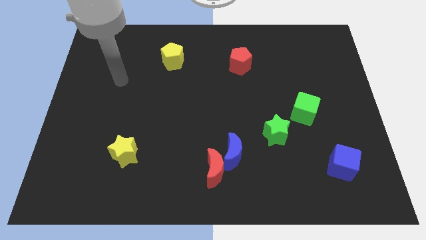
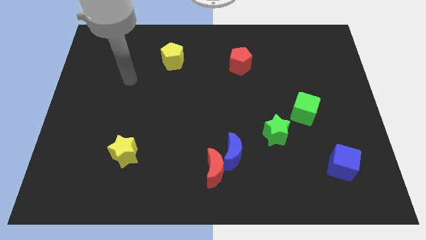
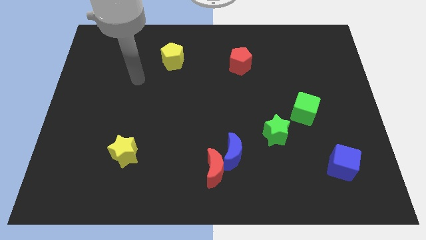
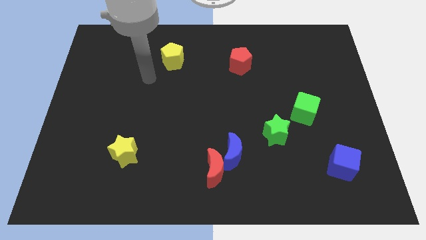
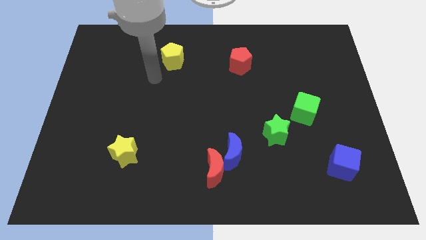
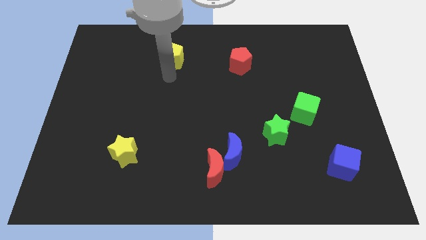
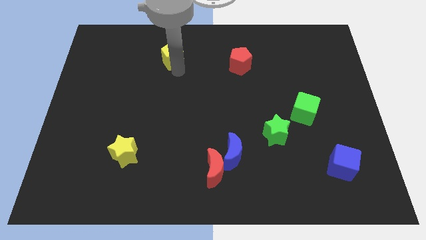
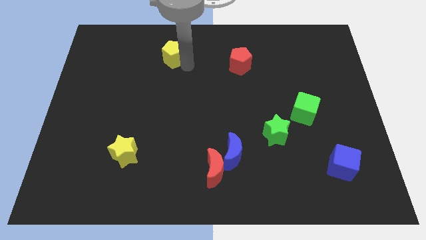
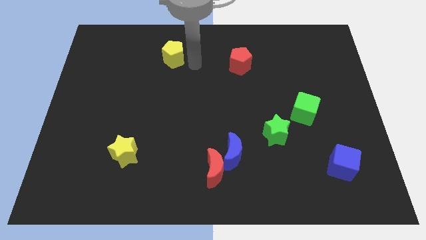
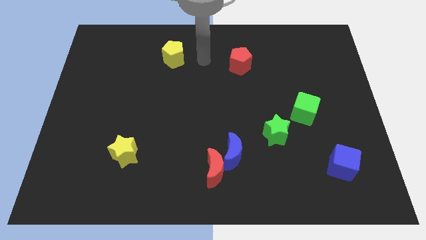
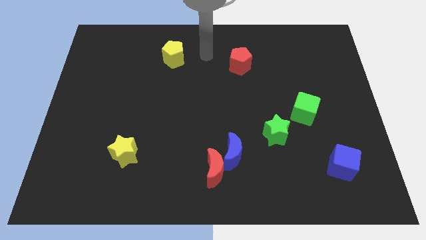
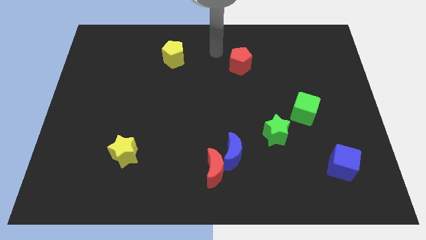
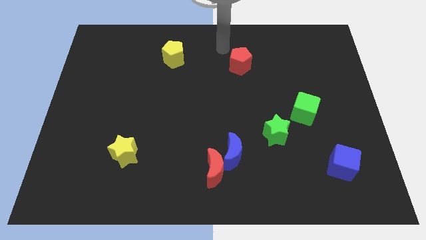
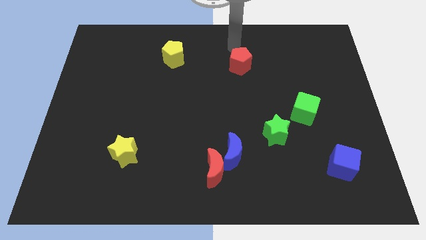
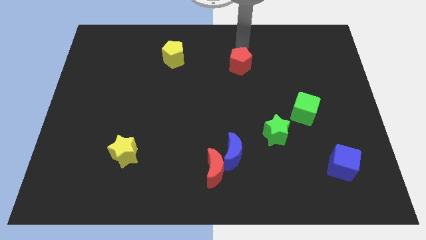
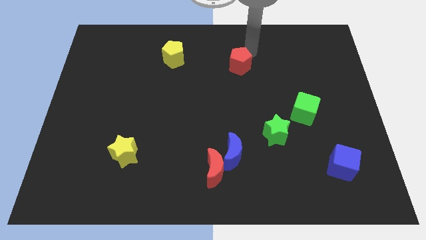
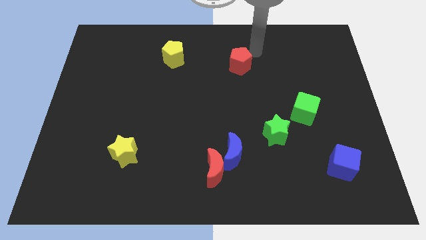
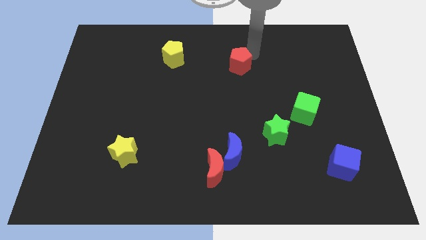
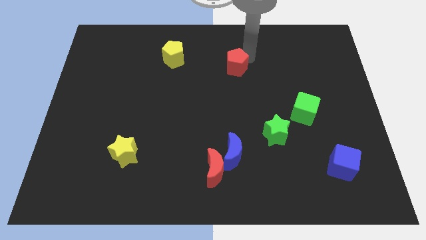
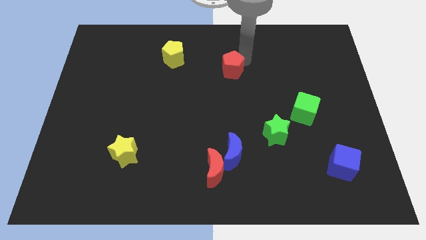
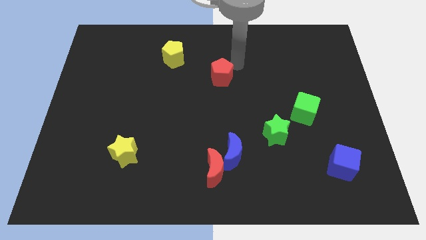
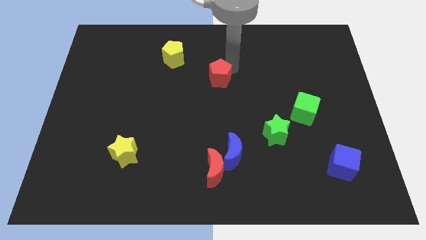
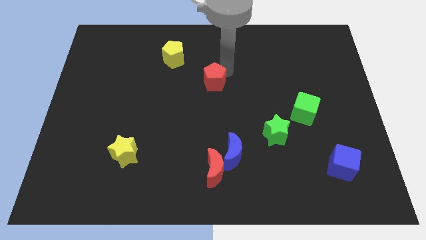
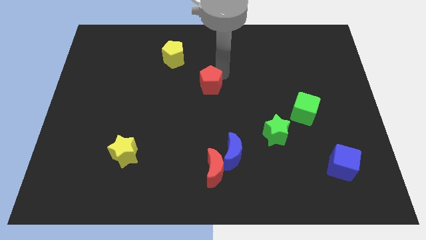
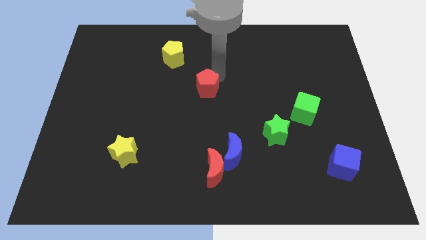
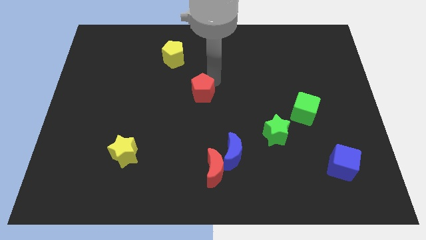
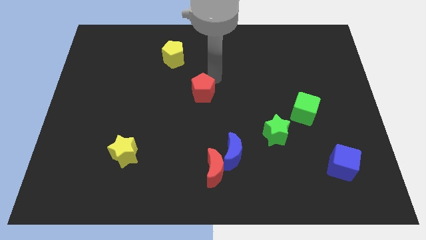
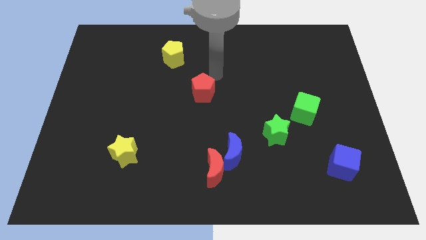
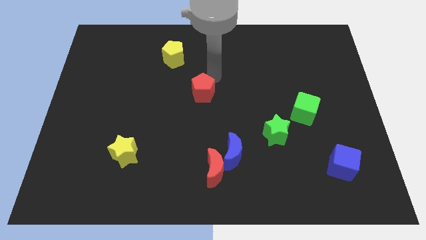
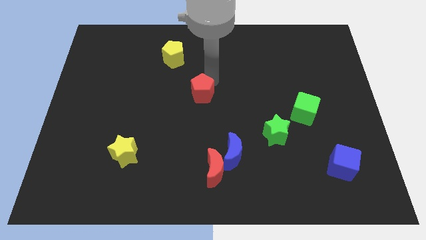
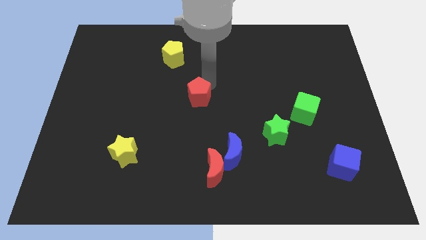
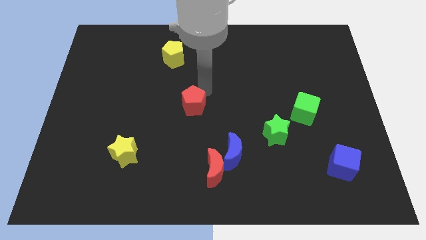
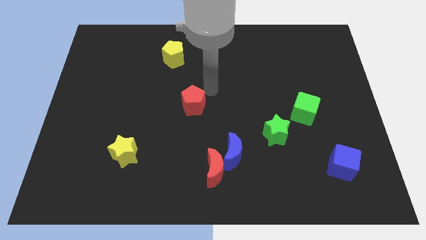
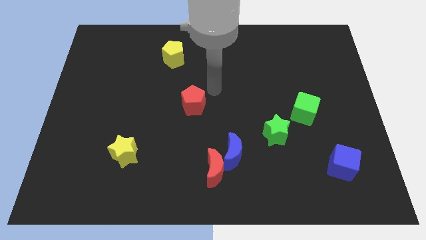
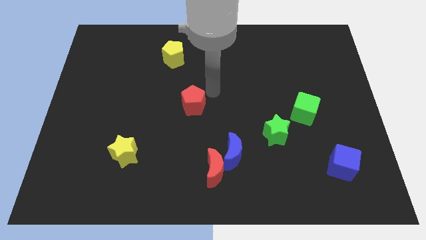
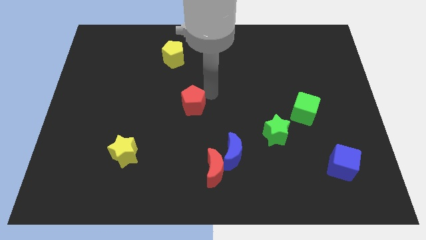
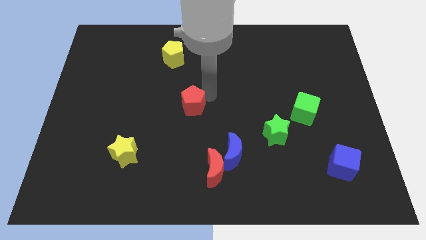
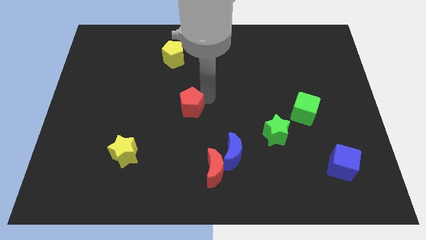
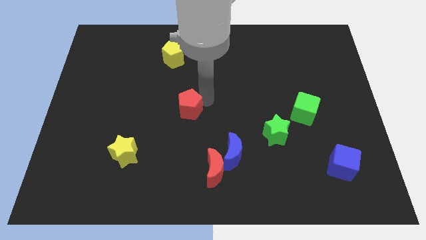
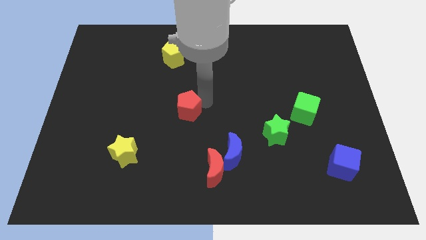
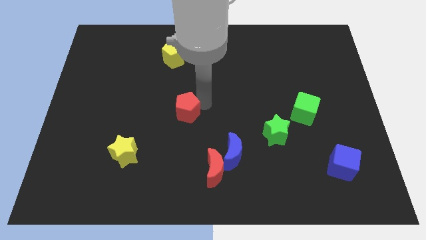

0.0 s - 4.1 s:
push the red pentagon down and left

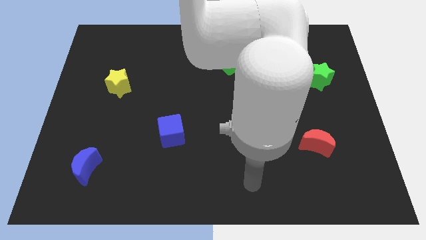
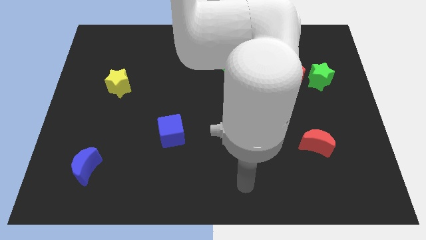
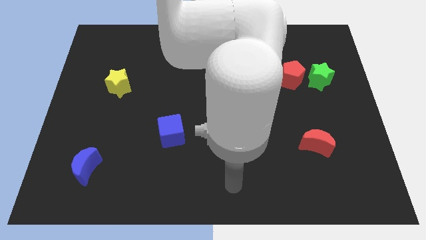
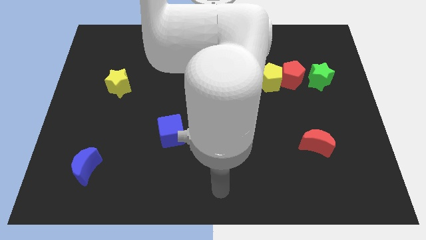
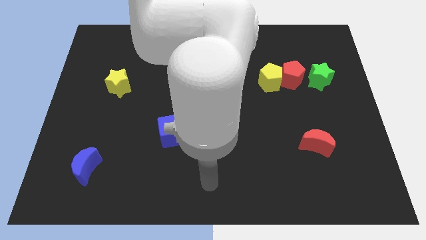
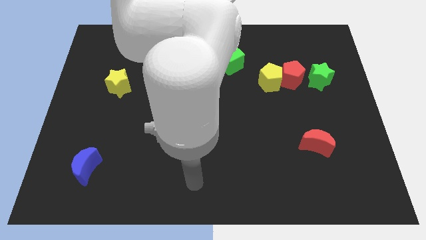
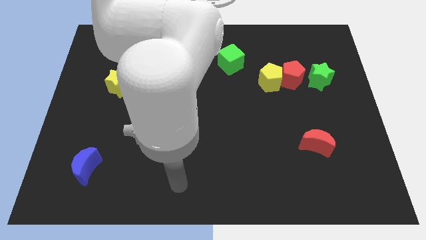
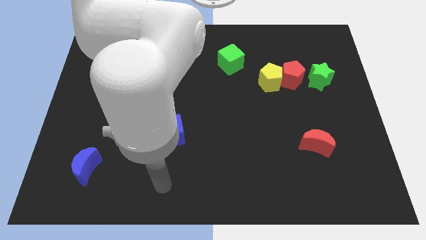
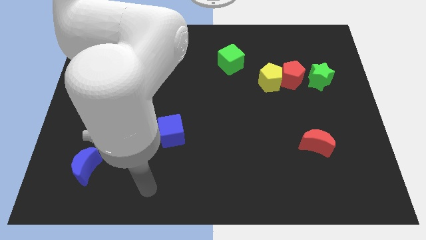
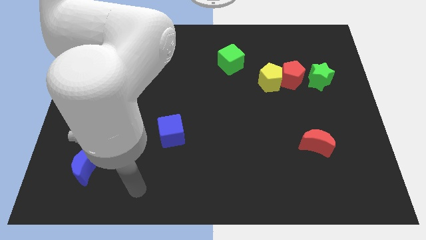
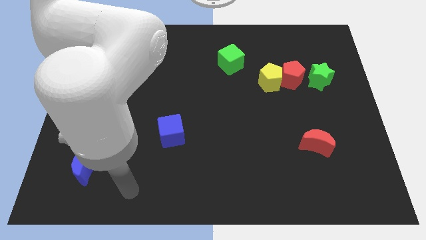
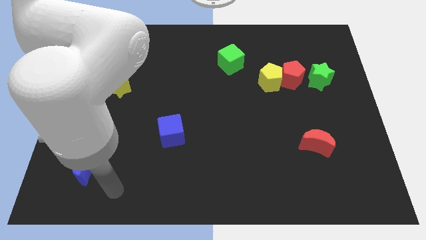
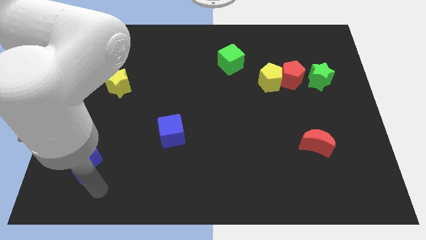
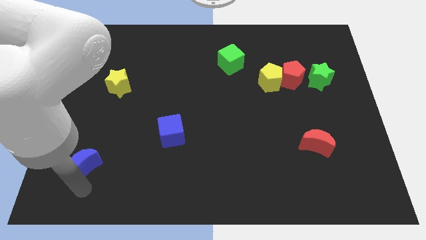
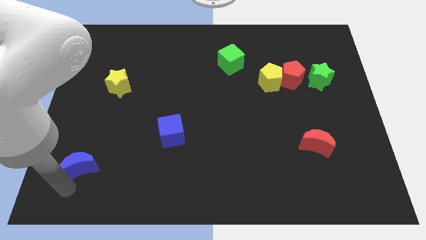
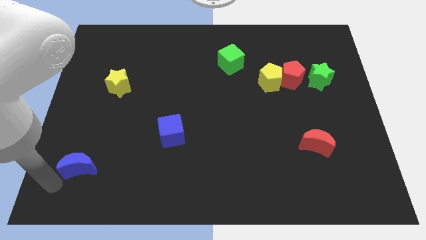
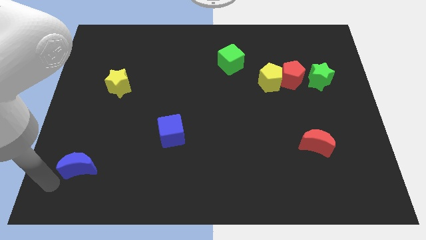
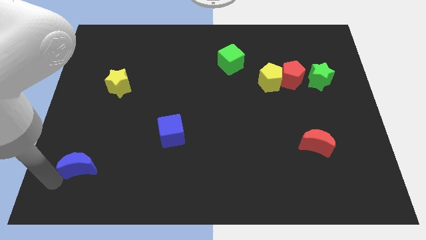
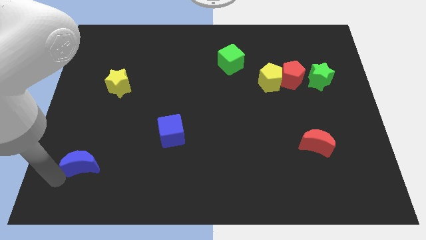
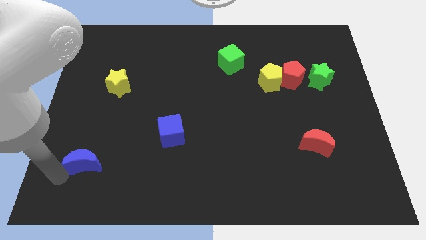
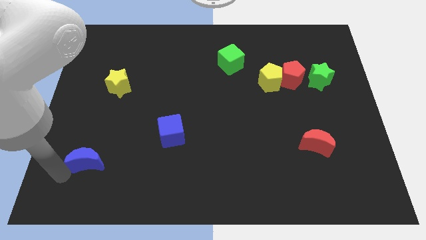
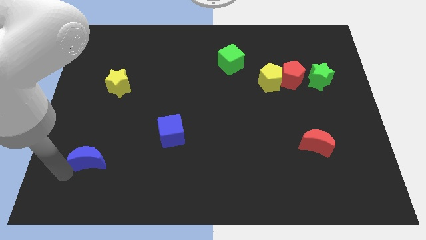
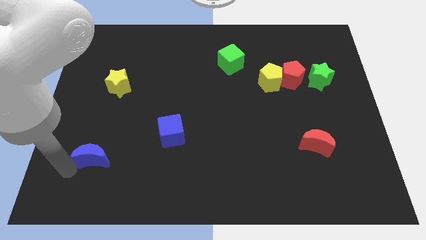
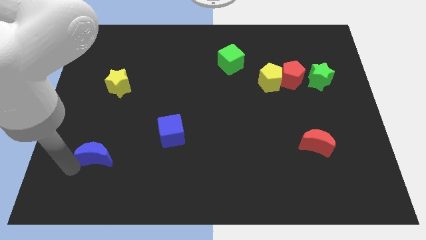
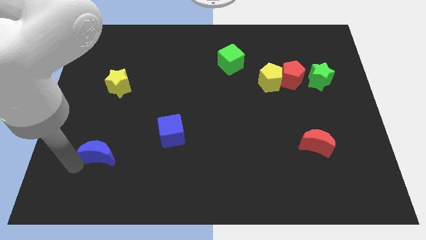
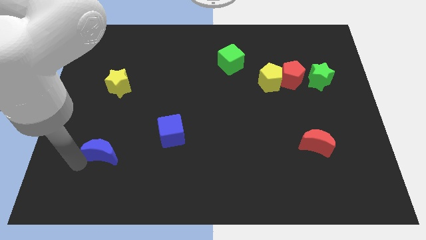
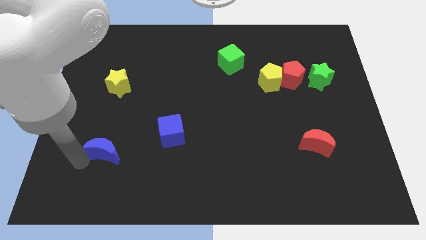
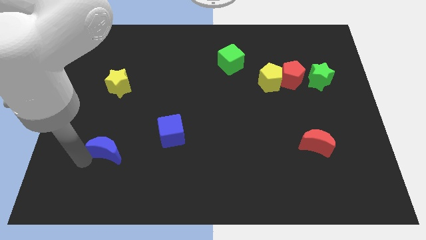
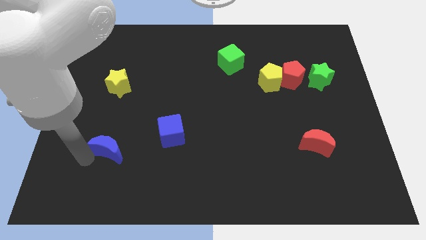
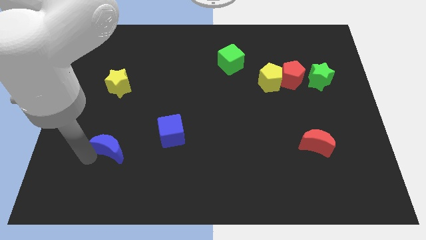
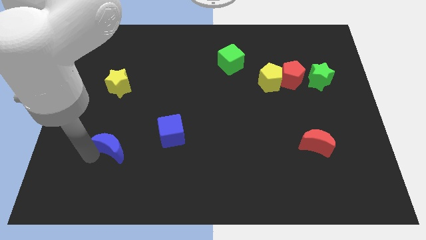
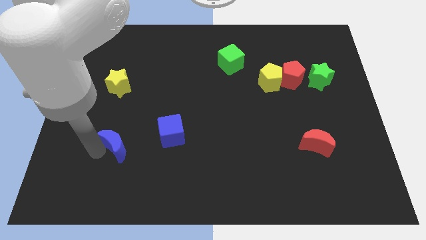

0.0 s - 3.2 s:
slide the blue moon diagonally up and right slightly

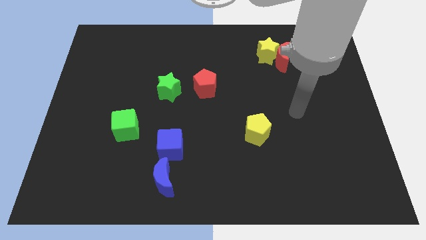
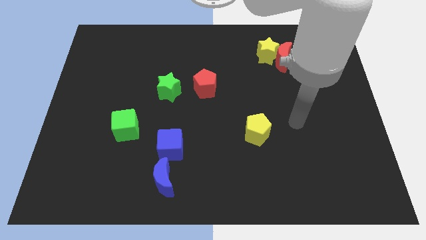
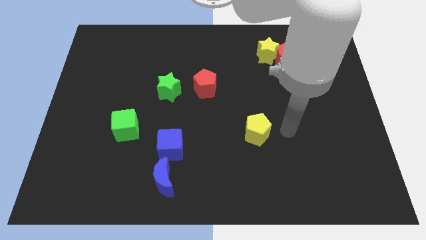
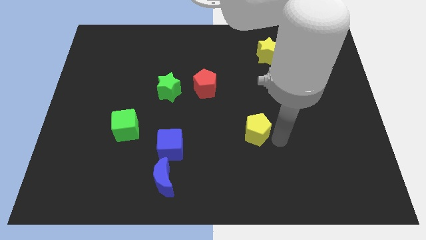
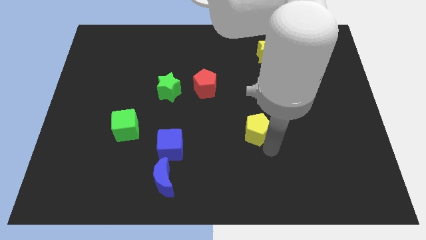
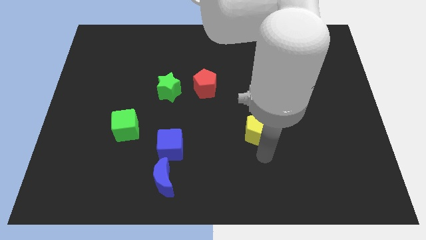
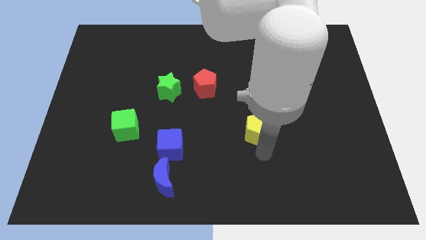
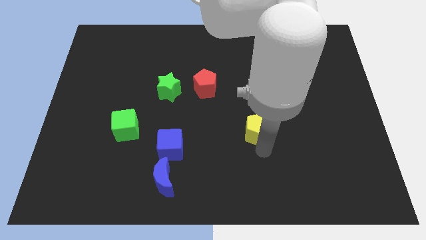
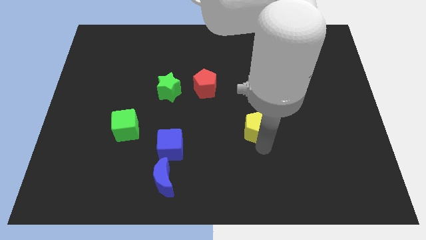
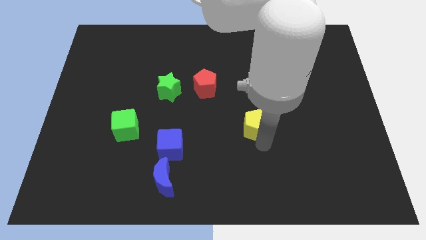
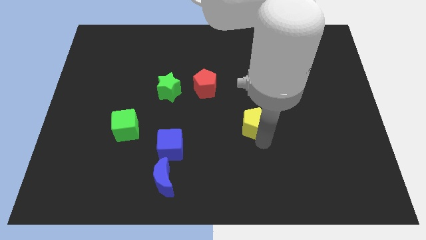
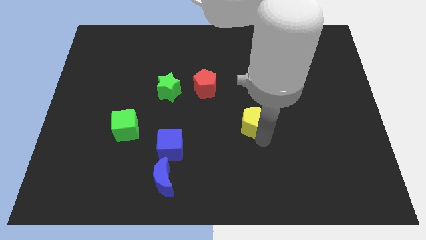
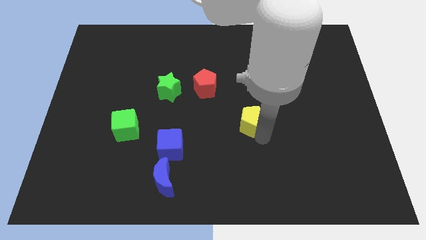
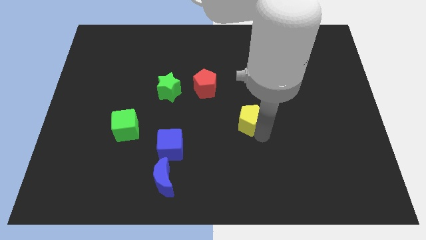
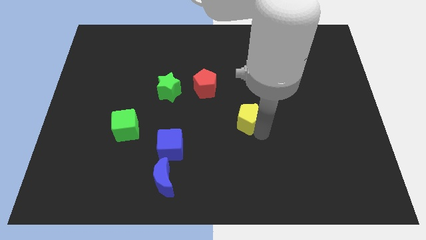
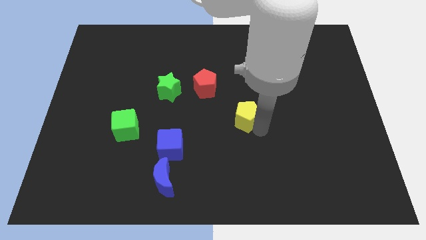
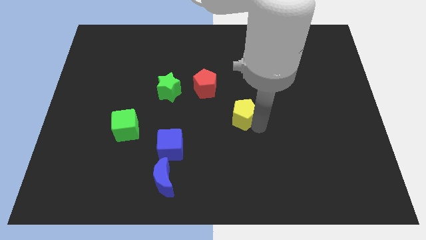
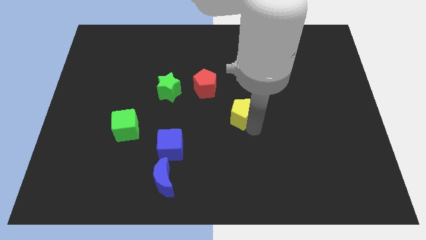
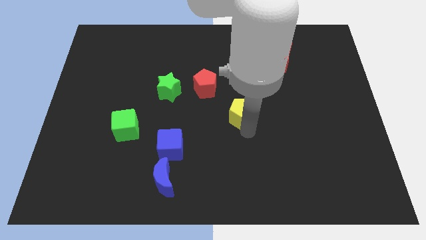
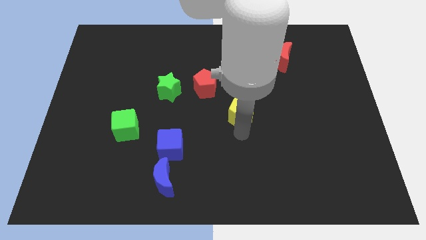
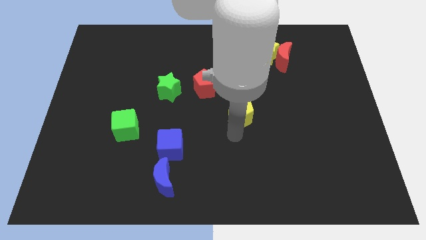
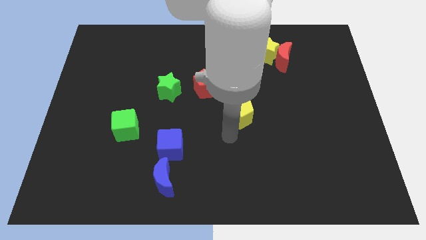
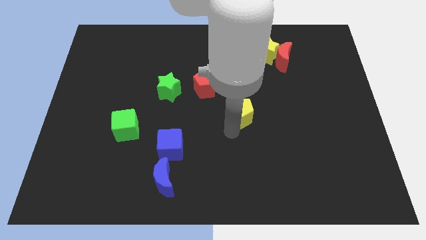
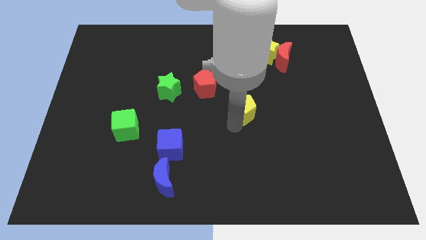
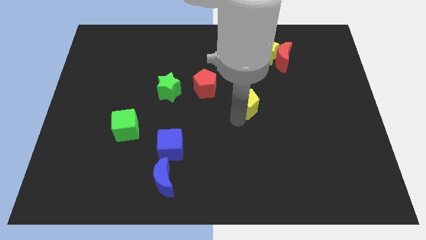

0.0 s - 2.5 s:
slightly move the yellow pentagon up
